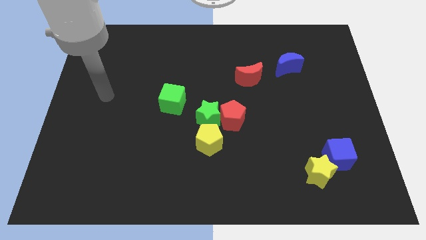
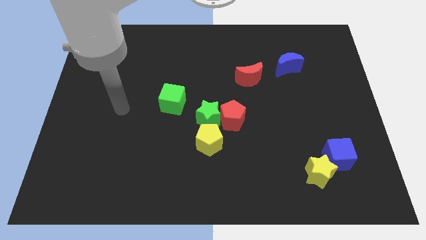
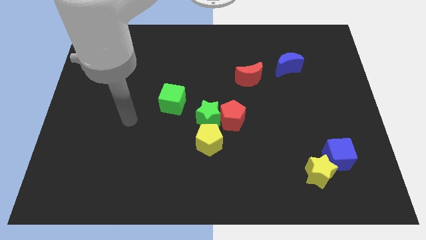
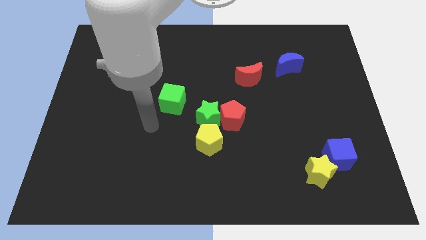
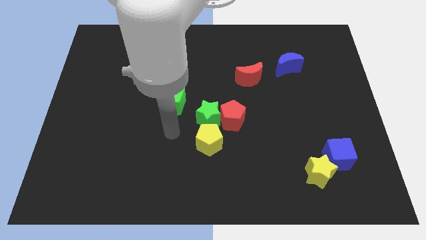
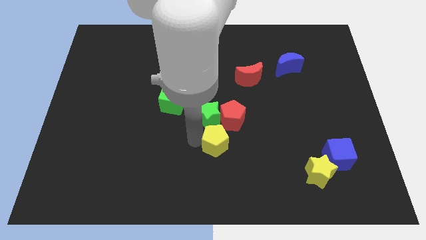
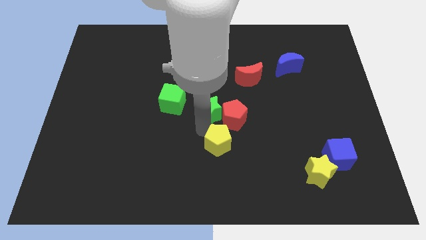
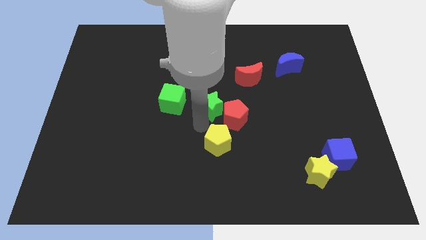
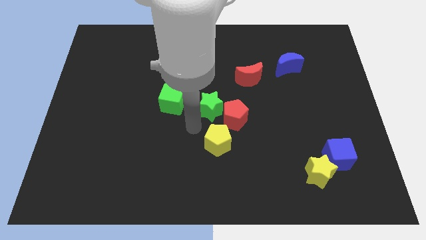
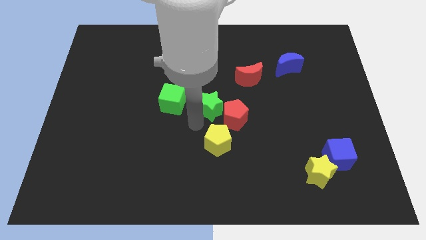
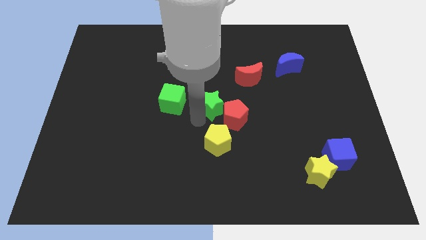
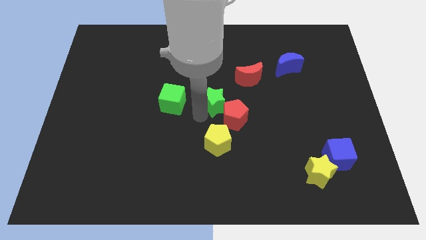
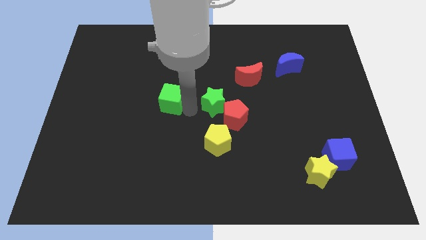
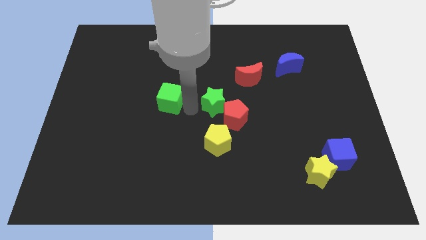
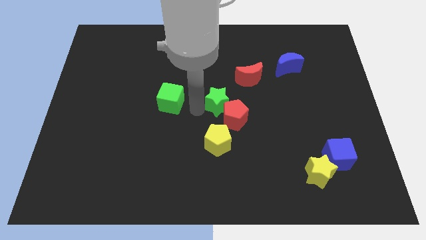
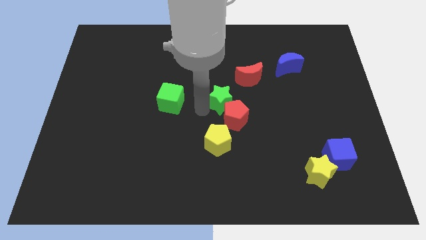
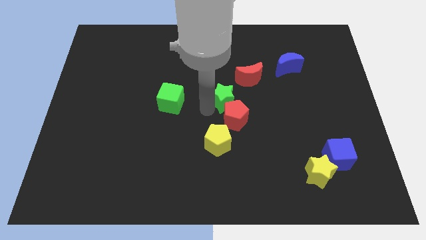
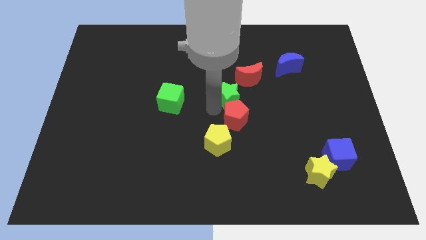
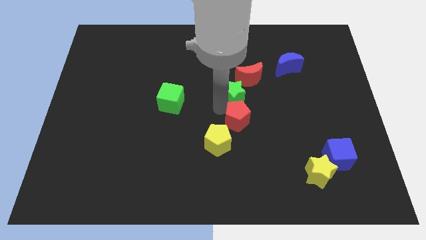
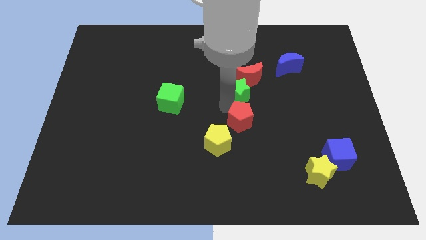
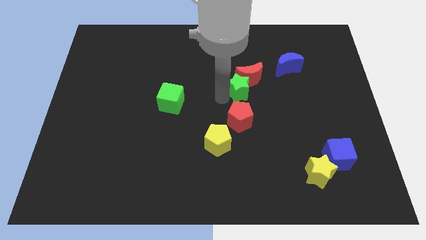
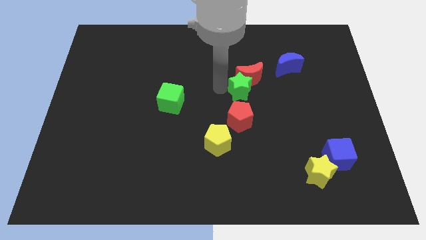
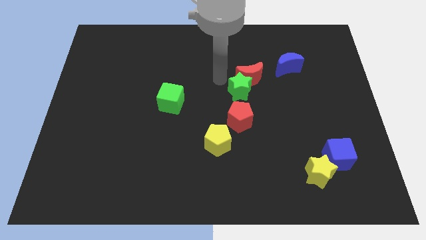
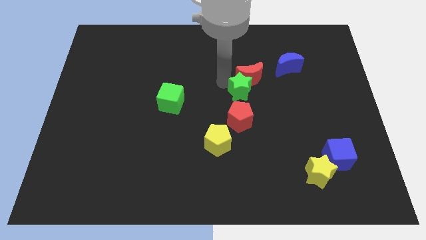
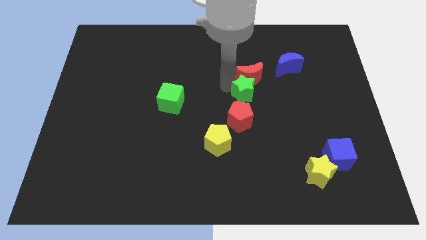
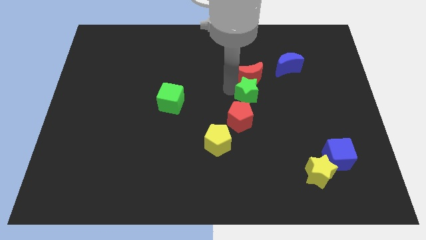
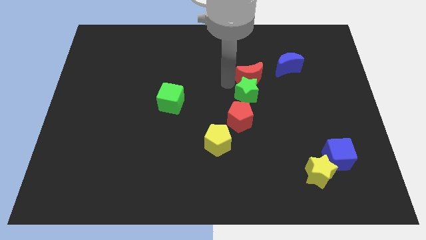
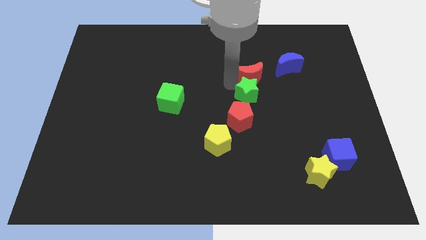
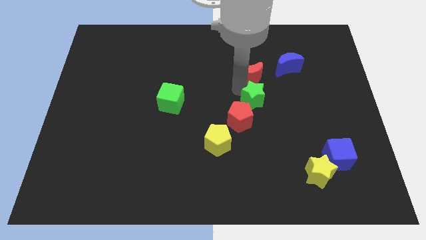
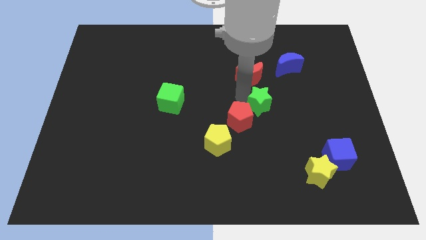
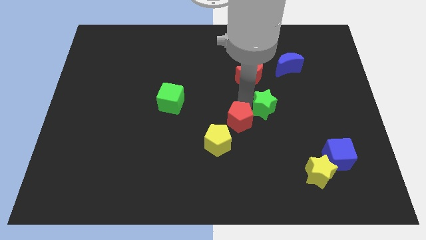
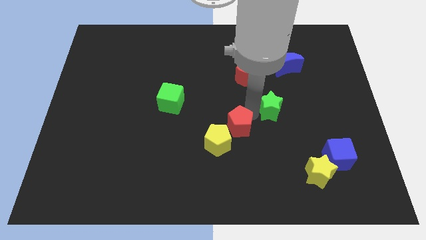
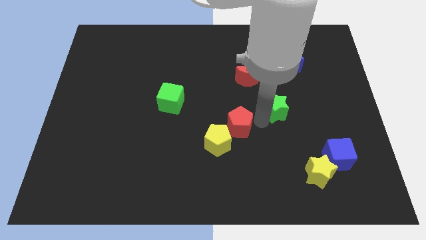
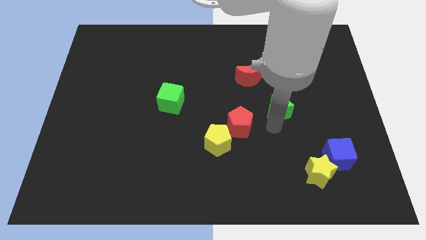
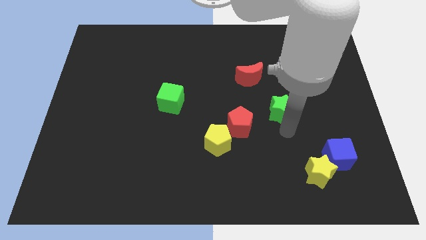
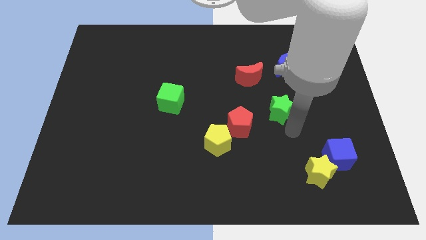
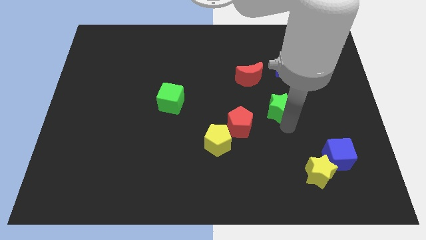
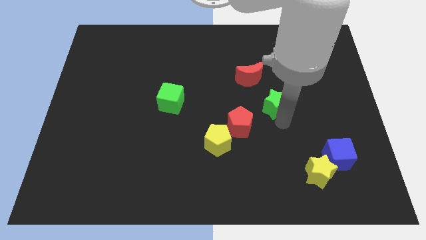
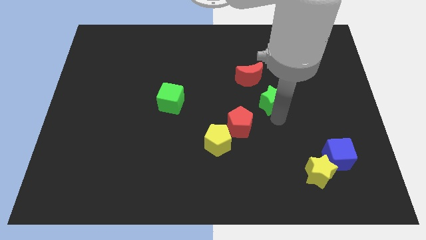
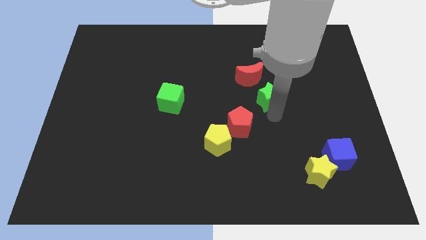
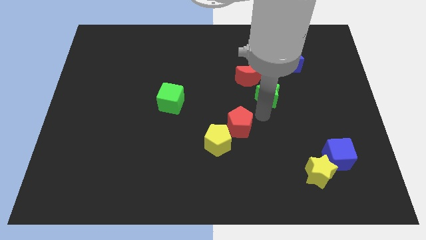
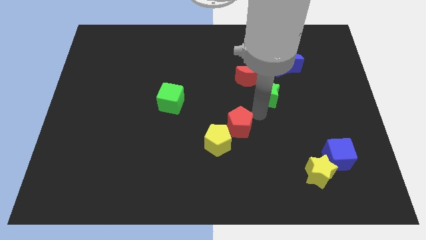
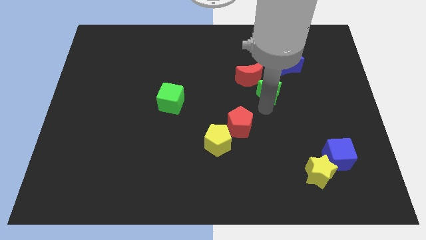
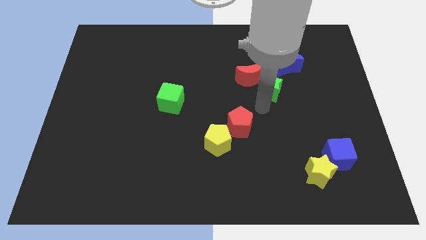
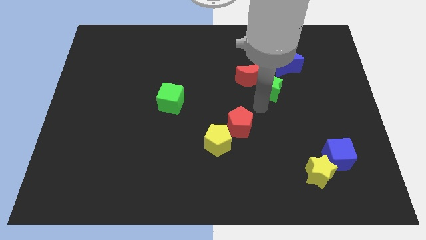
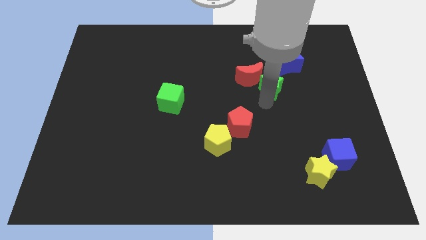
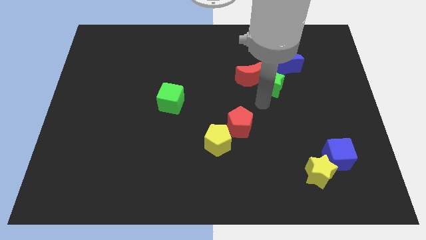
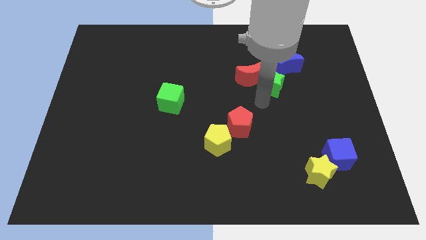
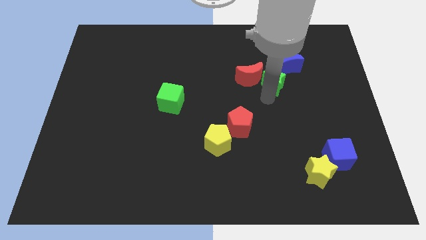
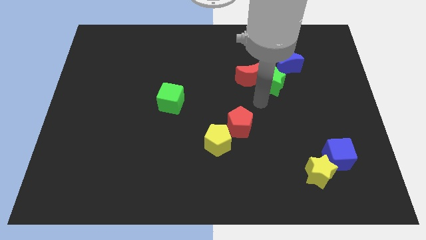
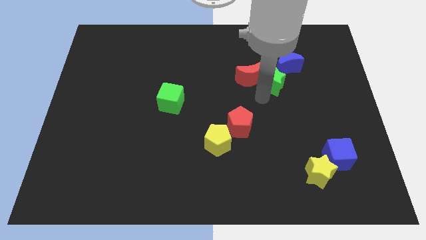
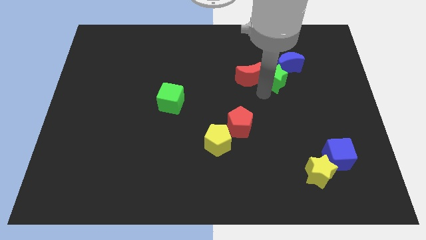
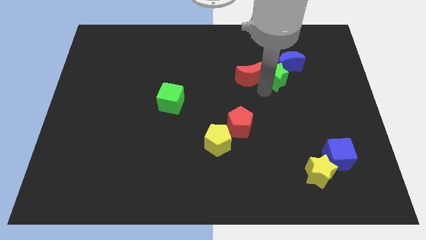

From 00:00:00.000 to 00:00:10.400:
move the green star close to the blue moon

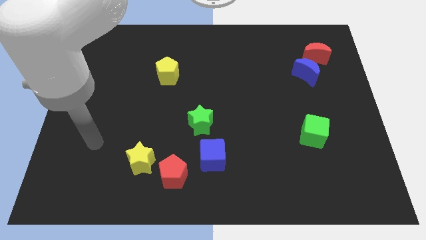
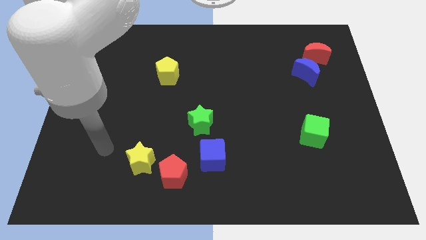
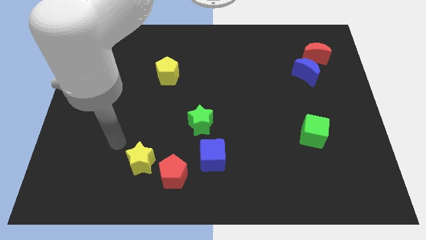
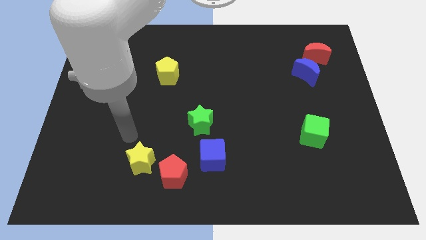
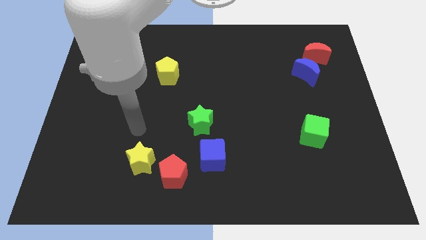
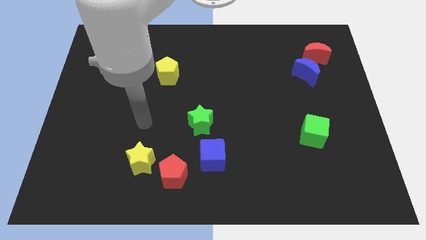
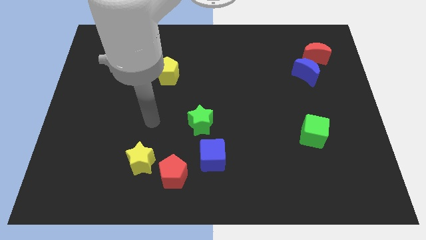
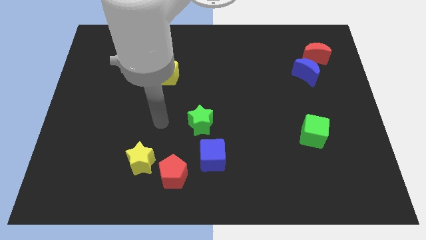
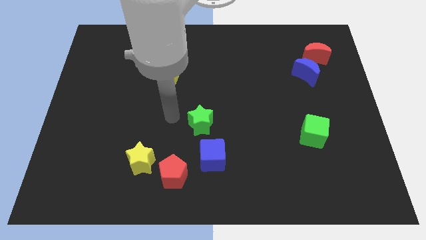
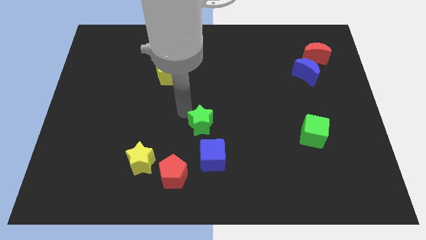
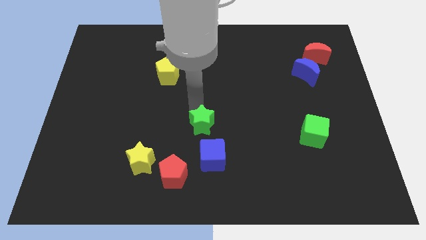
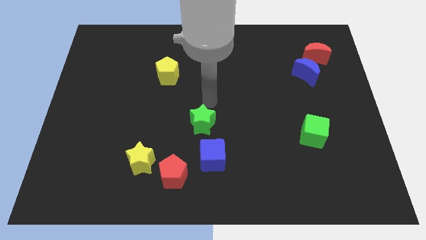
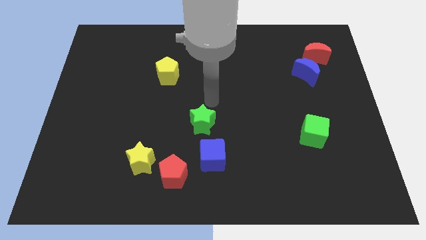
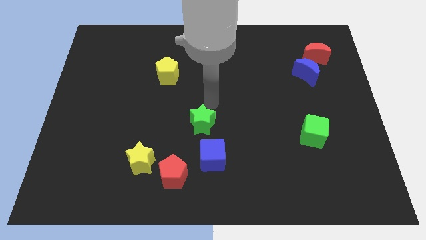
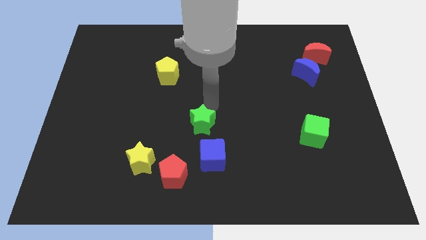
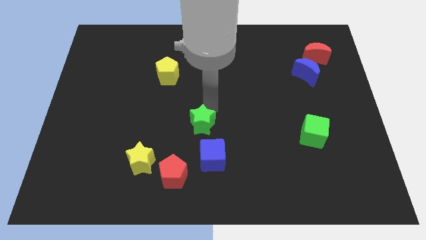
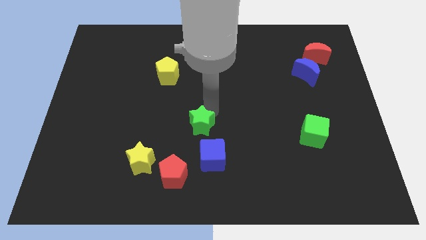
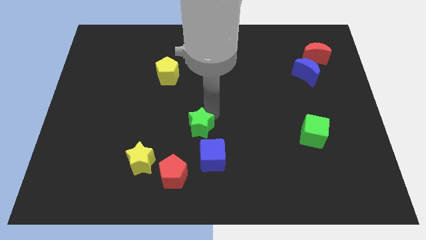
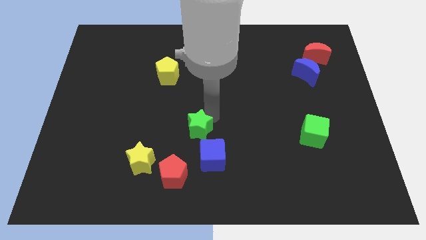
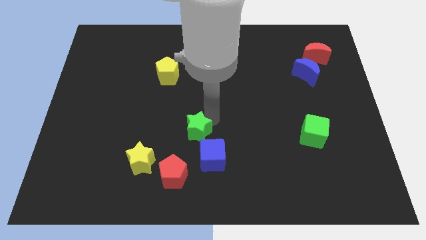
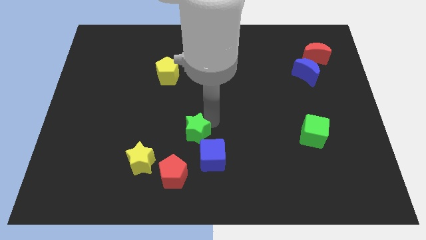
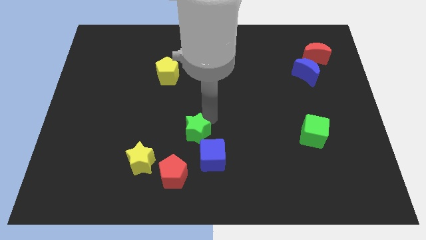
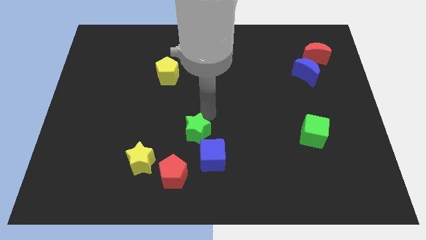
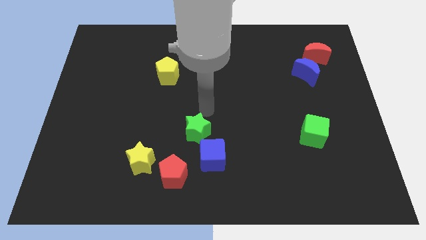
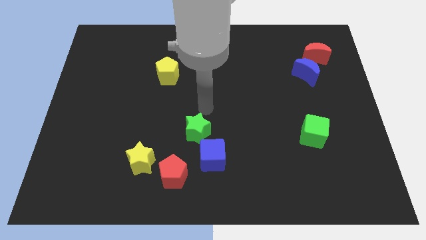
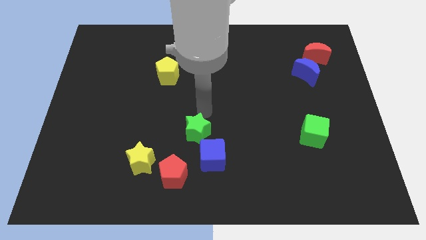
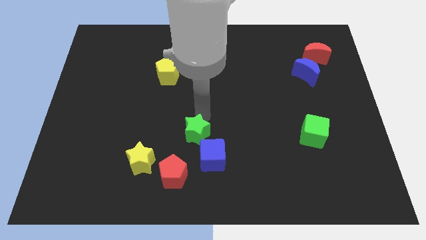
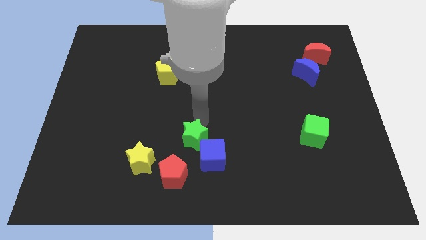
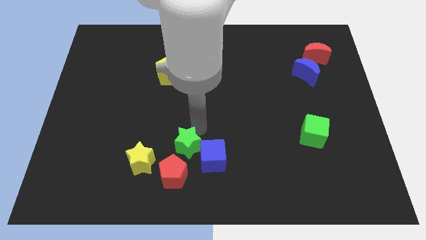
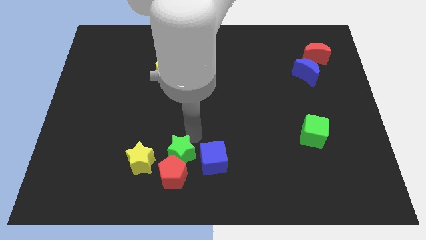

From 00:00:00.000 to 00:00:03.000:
move the green star to the red pentagon

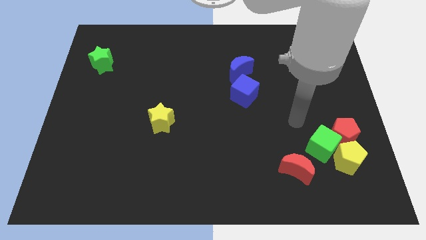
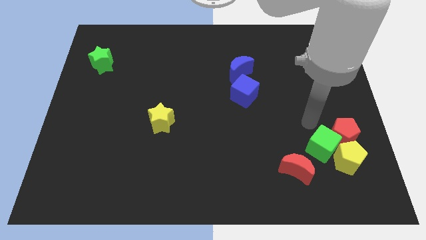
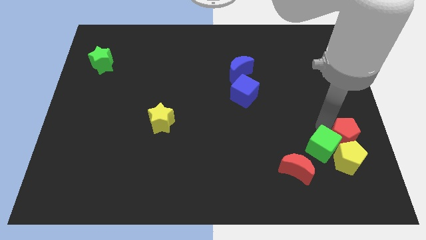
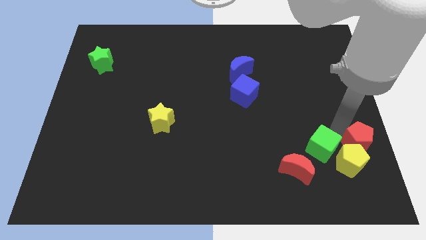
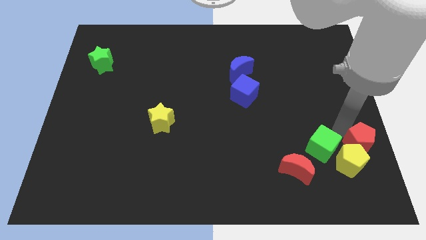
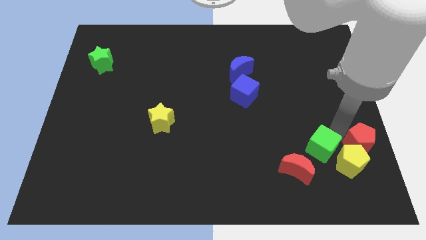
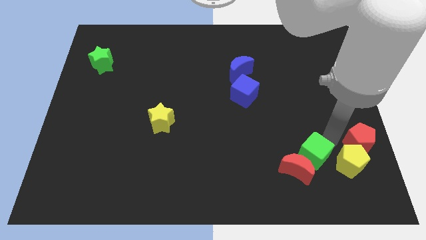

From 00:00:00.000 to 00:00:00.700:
slide the green cube next to the red moon
